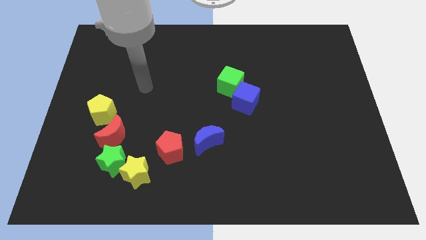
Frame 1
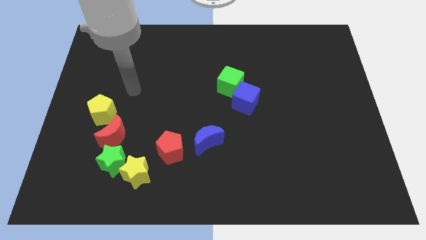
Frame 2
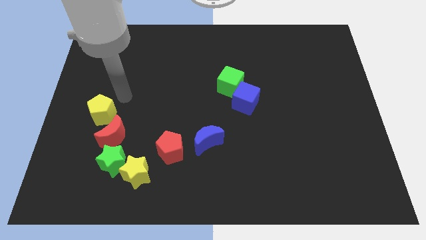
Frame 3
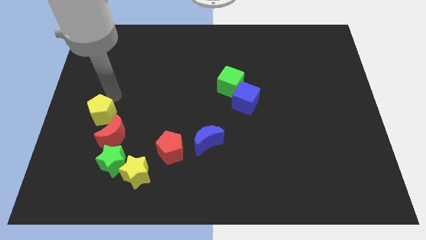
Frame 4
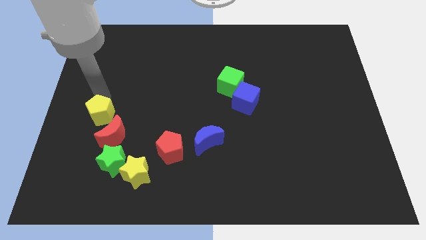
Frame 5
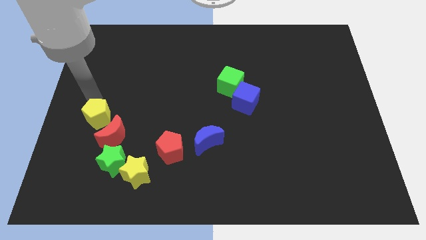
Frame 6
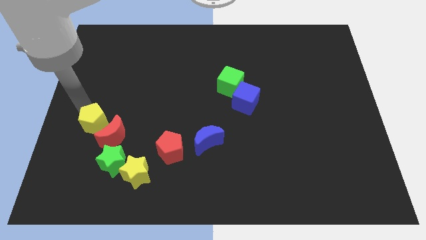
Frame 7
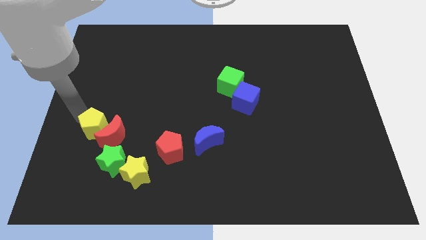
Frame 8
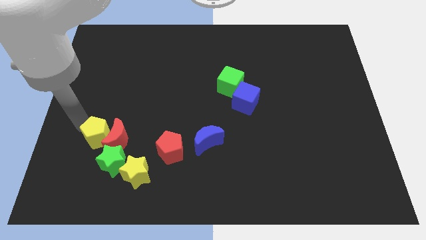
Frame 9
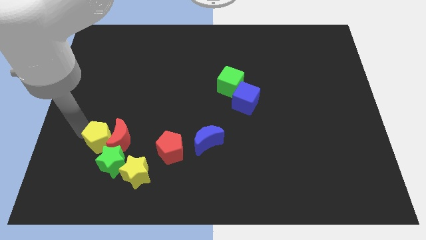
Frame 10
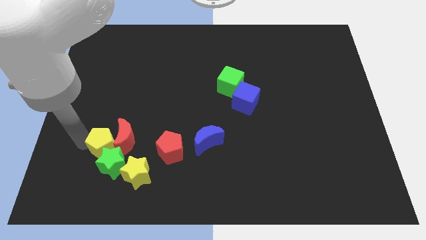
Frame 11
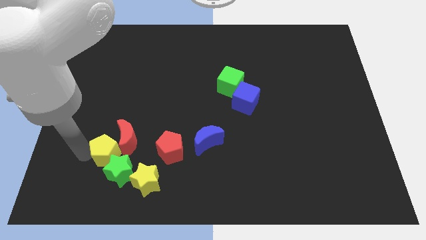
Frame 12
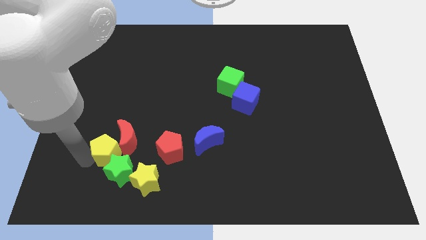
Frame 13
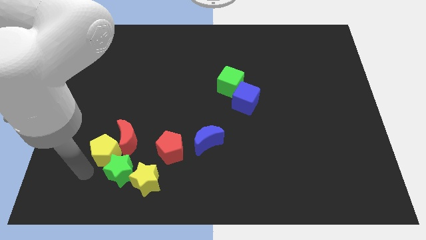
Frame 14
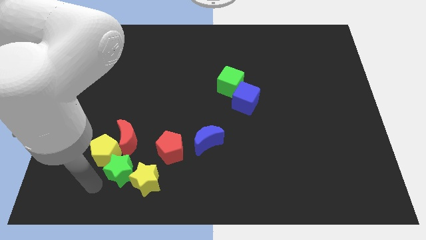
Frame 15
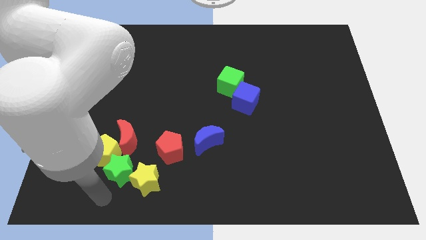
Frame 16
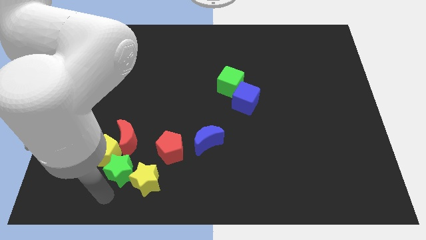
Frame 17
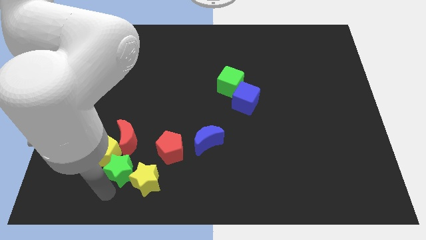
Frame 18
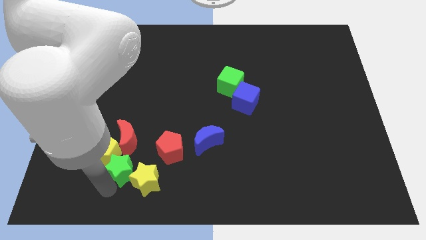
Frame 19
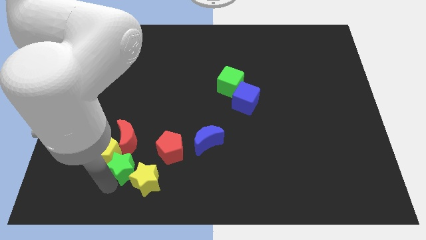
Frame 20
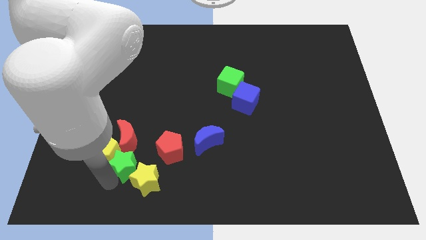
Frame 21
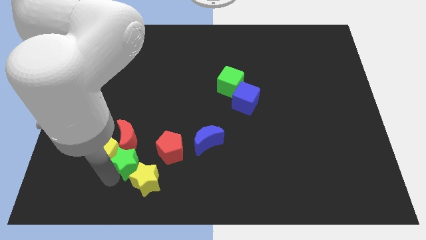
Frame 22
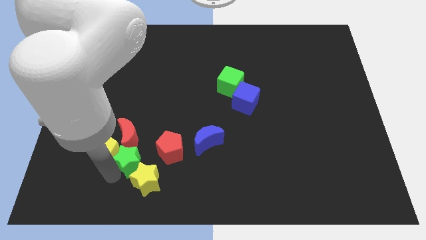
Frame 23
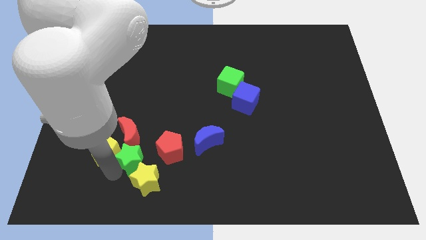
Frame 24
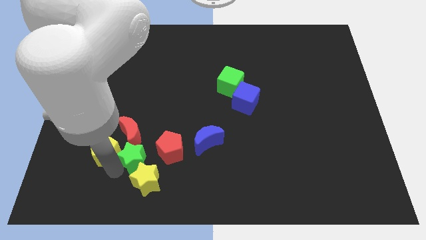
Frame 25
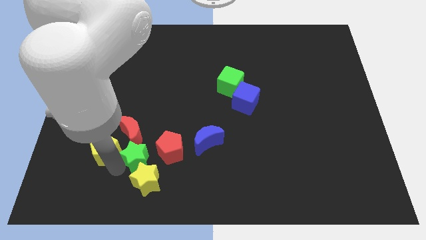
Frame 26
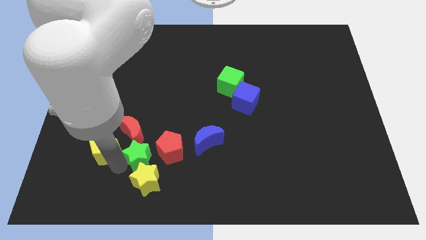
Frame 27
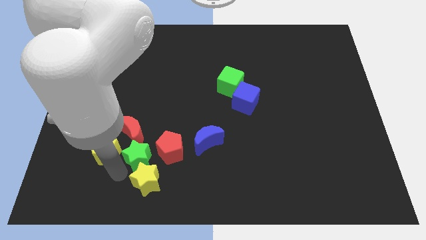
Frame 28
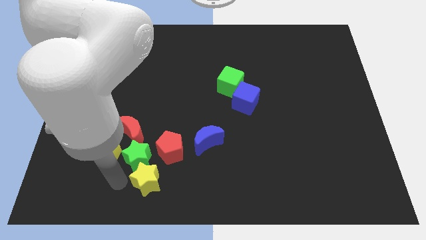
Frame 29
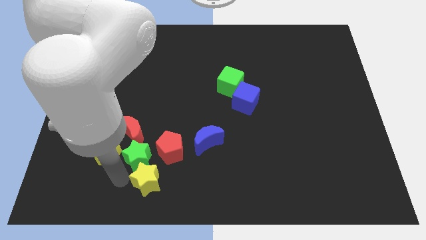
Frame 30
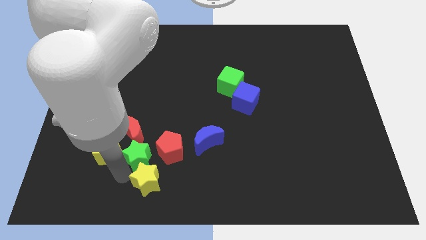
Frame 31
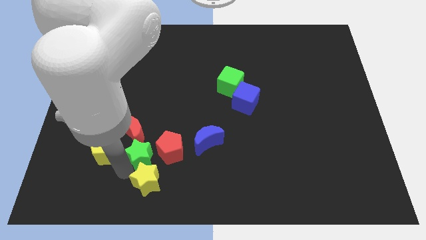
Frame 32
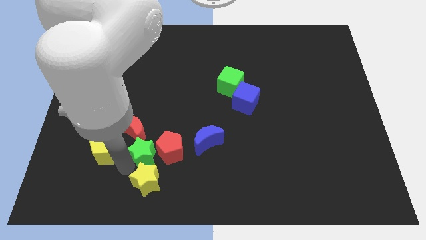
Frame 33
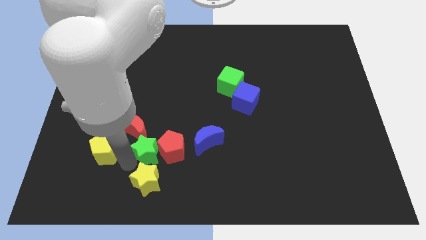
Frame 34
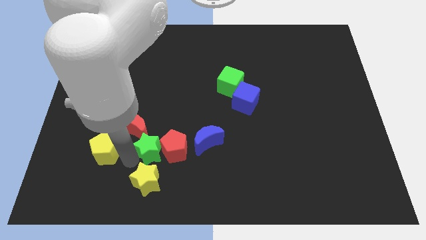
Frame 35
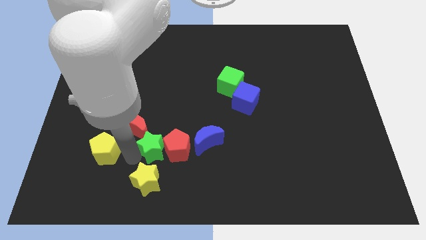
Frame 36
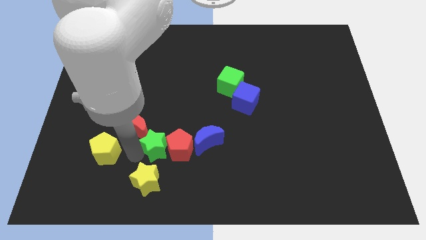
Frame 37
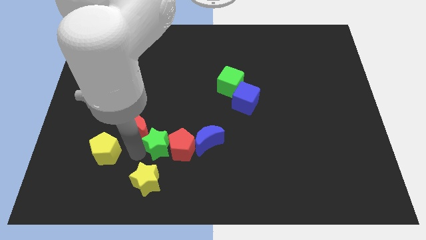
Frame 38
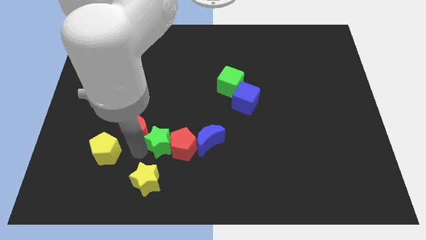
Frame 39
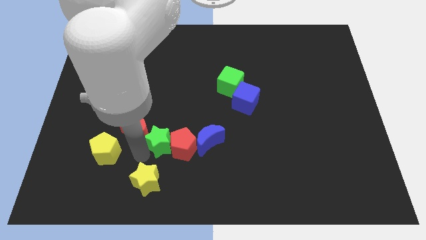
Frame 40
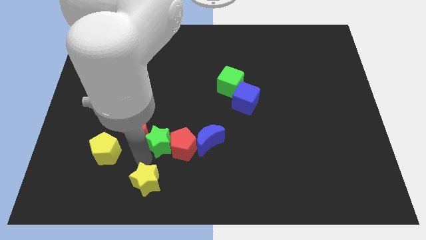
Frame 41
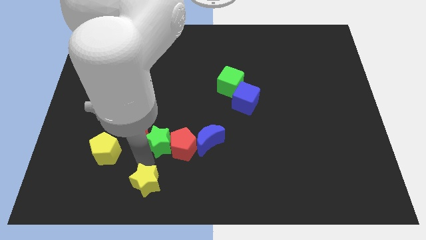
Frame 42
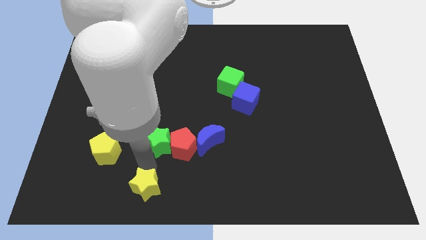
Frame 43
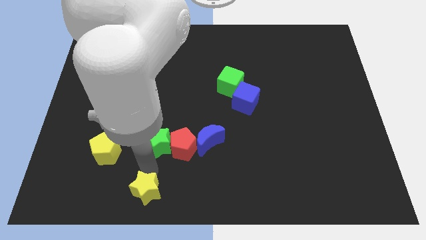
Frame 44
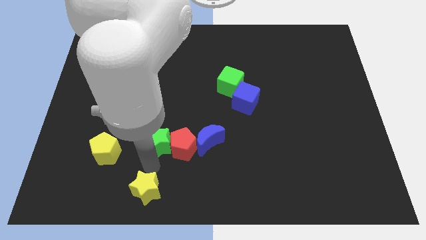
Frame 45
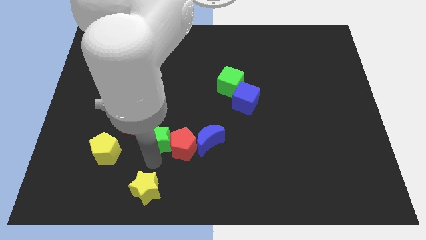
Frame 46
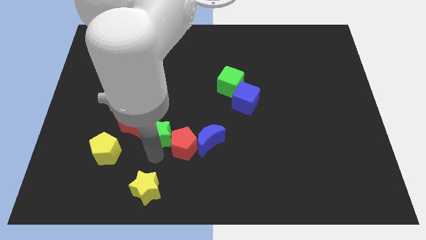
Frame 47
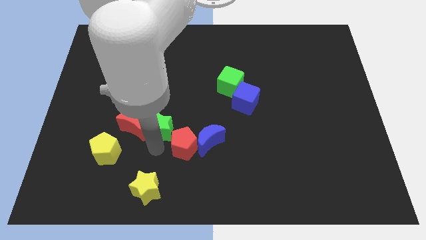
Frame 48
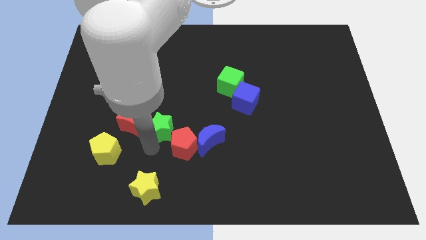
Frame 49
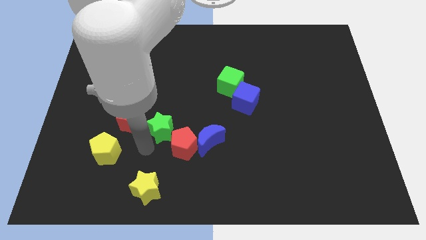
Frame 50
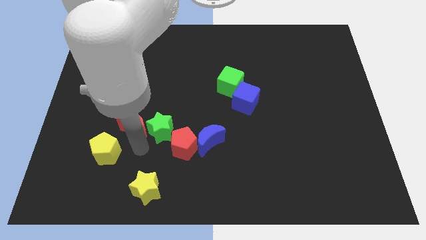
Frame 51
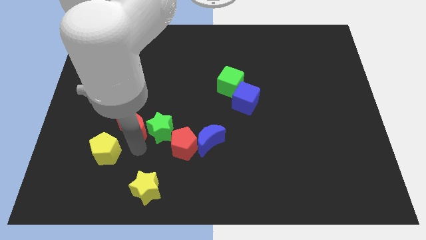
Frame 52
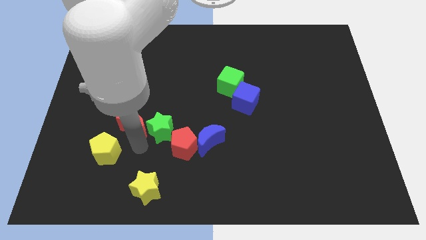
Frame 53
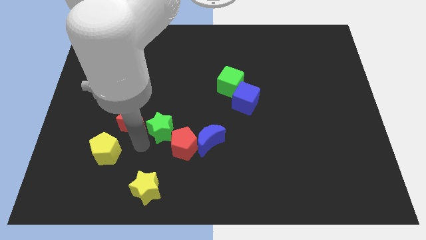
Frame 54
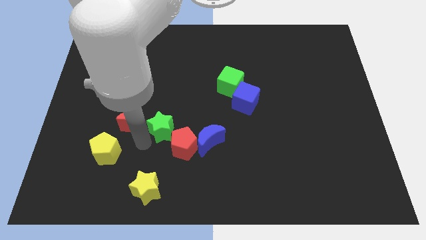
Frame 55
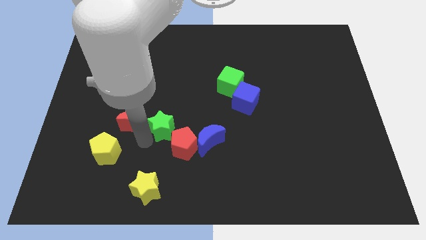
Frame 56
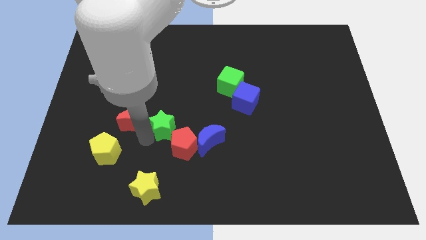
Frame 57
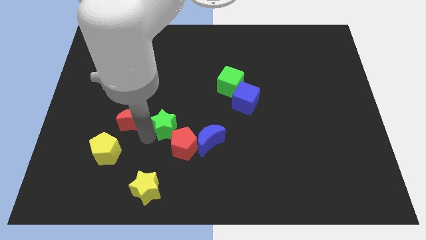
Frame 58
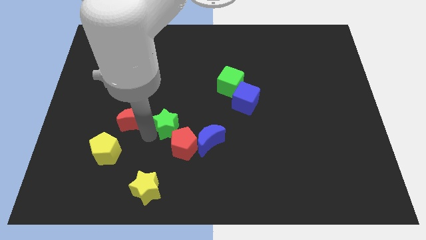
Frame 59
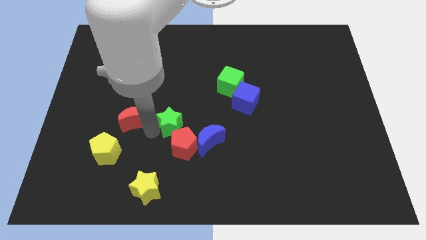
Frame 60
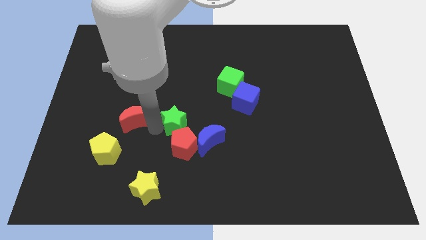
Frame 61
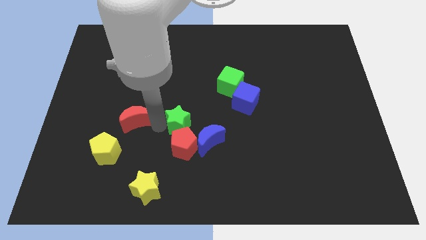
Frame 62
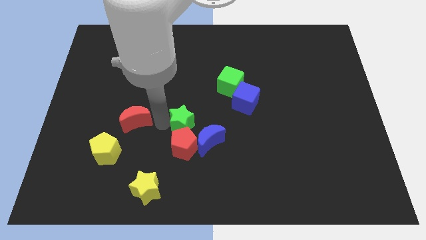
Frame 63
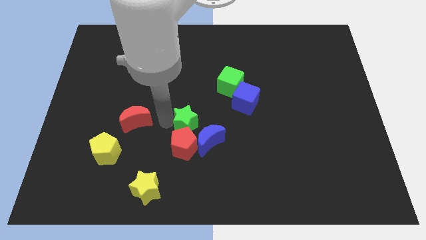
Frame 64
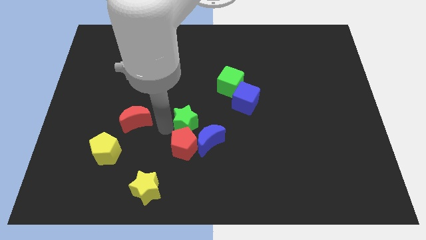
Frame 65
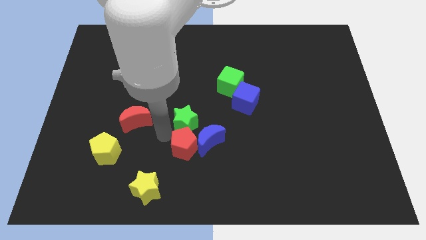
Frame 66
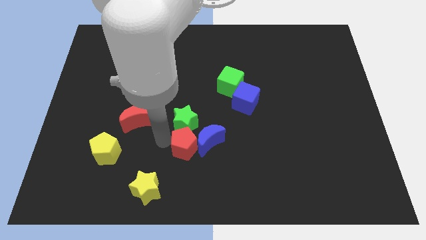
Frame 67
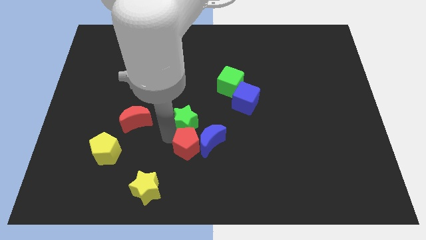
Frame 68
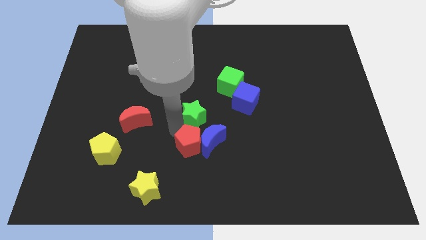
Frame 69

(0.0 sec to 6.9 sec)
move the green star above the blue moon

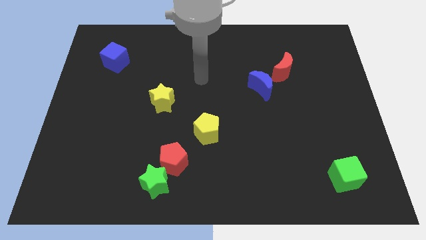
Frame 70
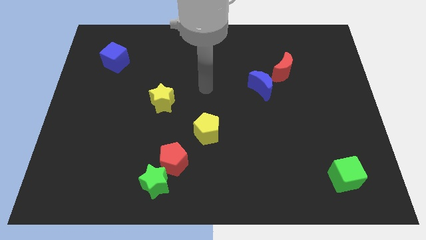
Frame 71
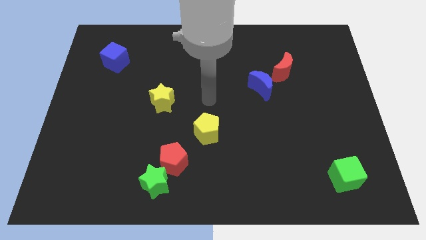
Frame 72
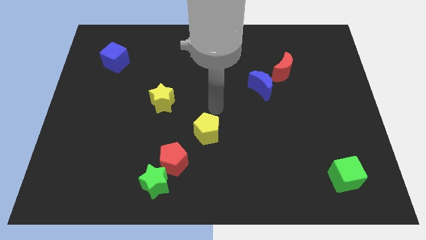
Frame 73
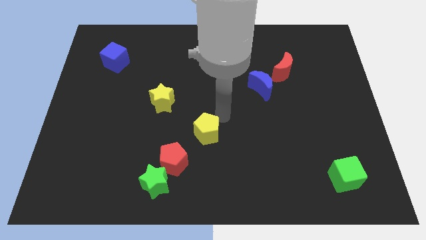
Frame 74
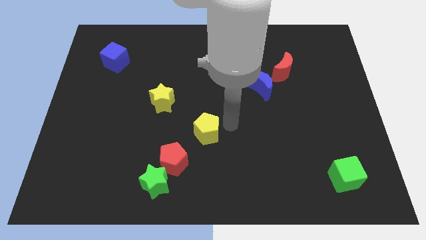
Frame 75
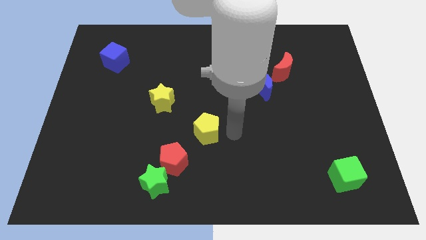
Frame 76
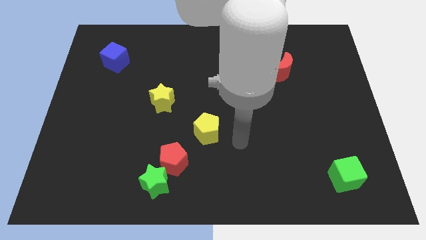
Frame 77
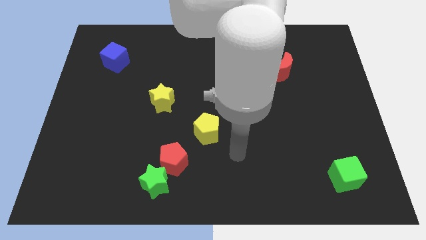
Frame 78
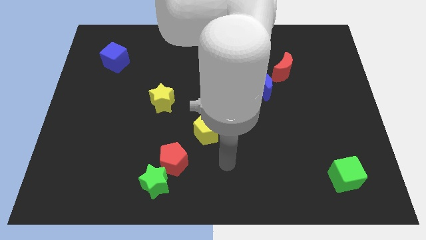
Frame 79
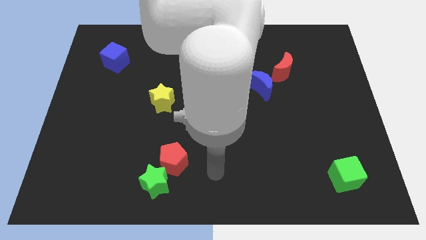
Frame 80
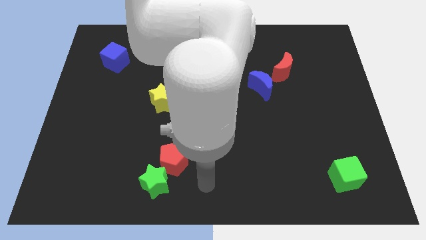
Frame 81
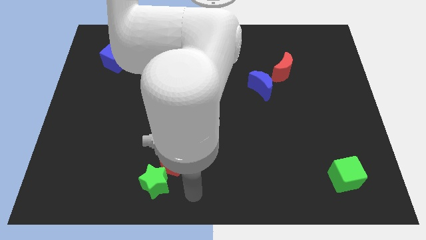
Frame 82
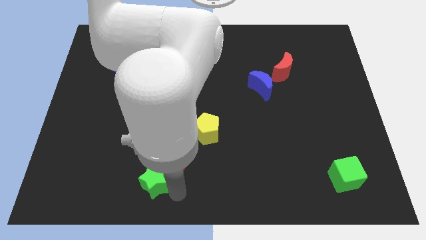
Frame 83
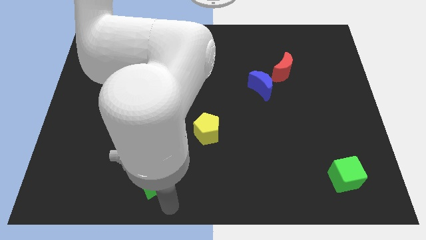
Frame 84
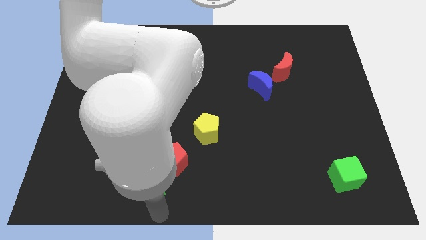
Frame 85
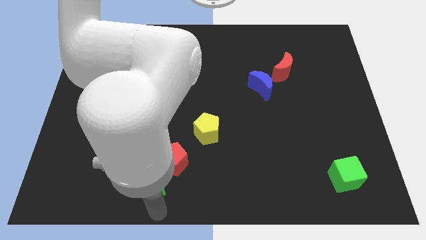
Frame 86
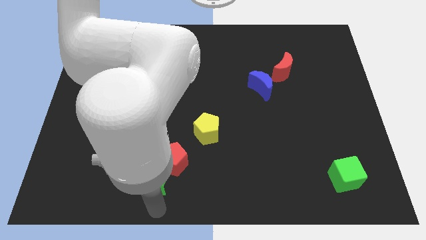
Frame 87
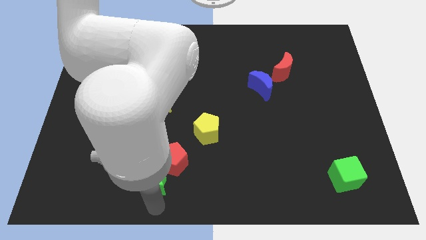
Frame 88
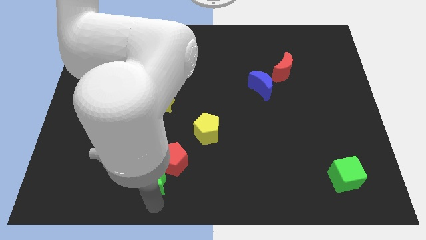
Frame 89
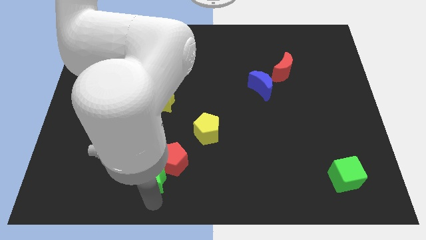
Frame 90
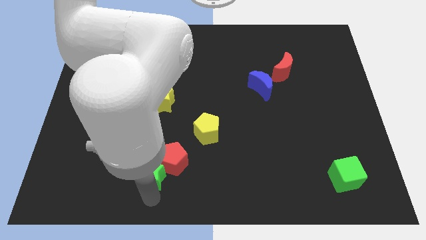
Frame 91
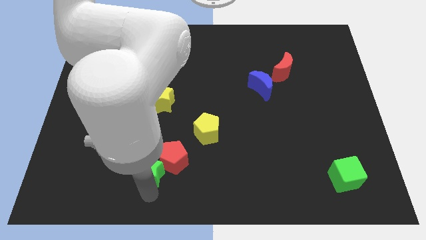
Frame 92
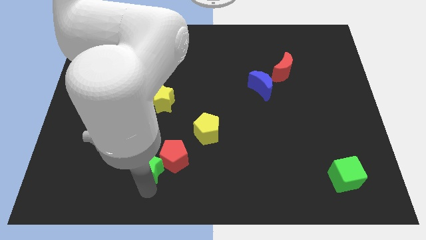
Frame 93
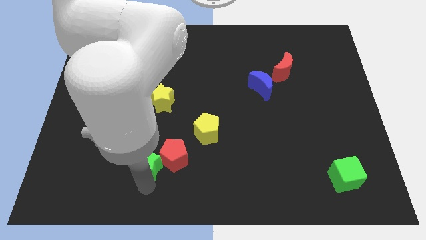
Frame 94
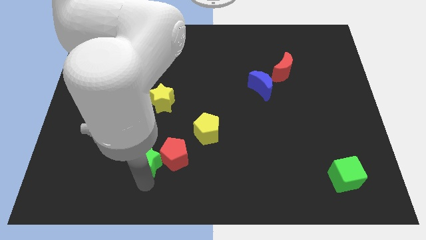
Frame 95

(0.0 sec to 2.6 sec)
put the green star to the bottom of the yellow star
